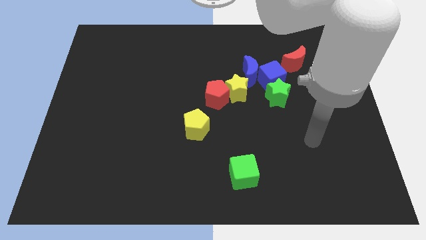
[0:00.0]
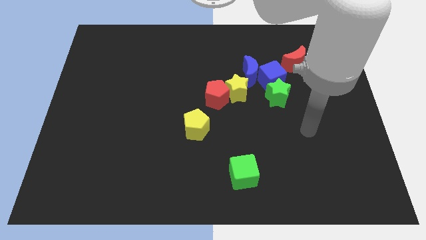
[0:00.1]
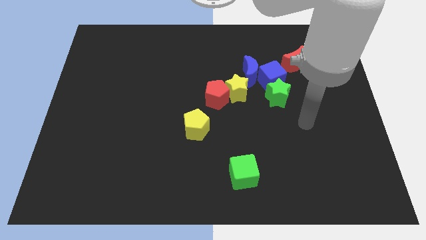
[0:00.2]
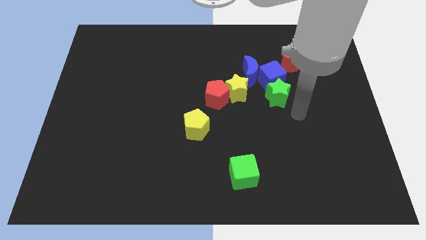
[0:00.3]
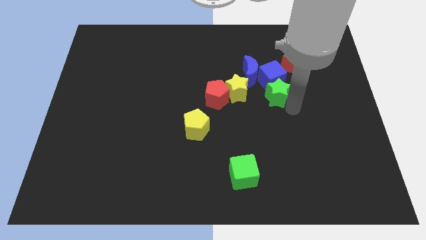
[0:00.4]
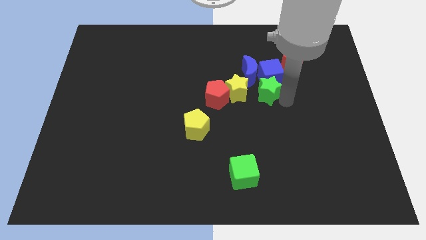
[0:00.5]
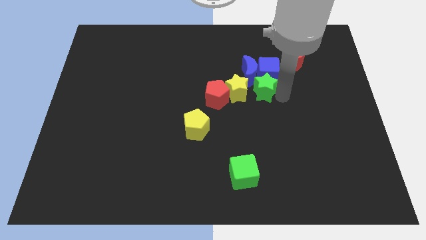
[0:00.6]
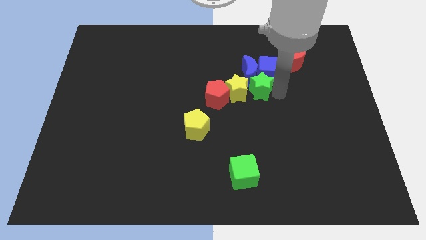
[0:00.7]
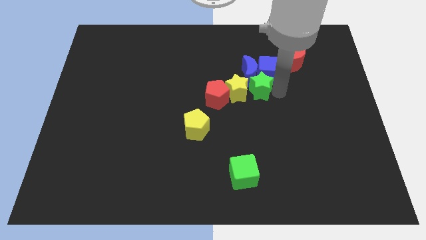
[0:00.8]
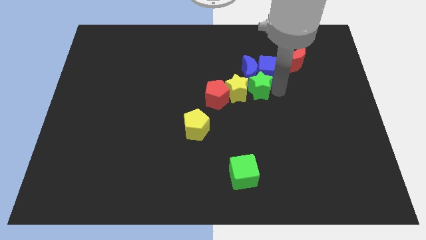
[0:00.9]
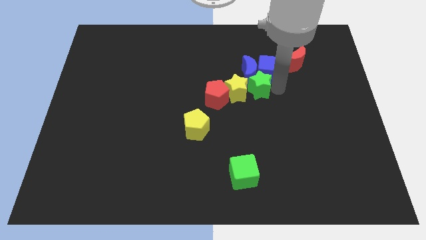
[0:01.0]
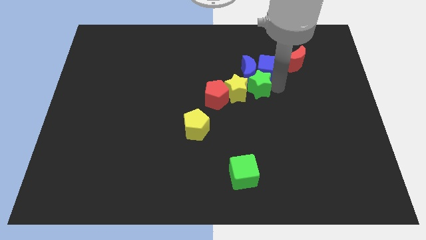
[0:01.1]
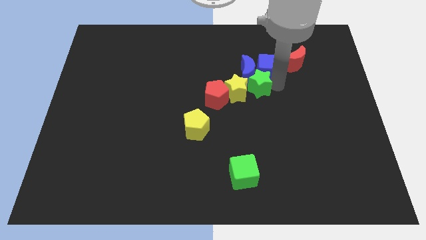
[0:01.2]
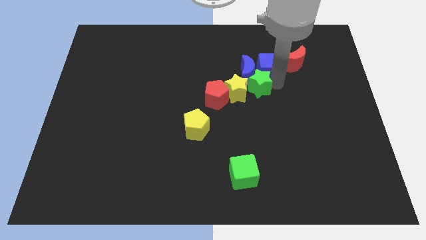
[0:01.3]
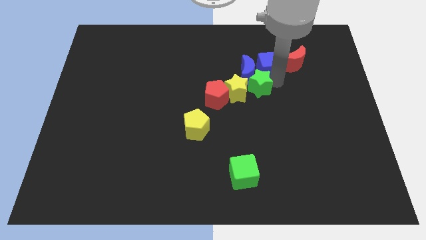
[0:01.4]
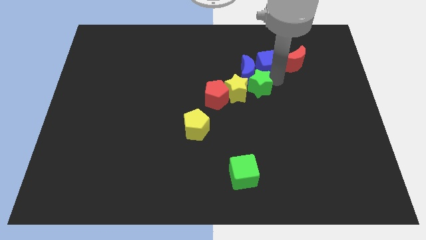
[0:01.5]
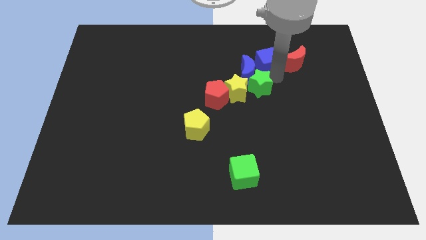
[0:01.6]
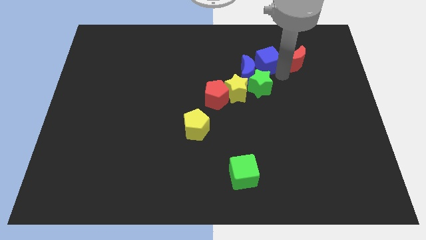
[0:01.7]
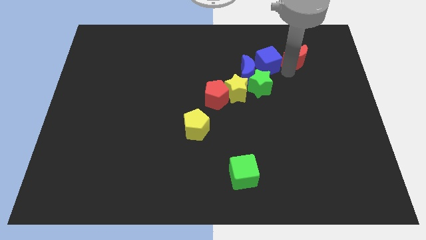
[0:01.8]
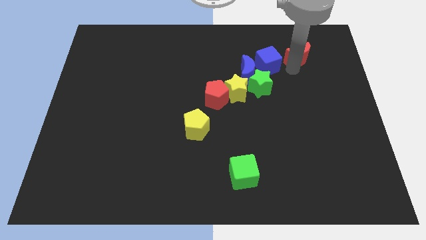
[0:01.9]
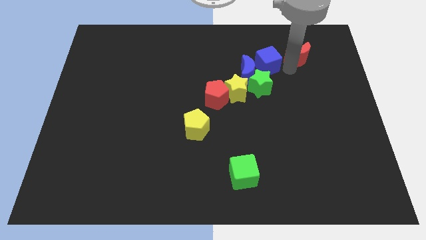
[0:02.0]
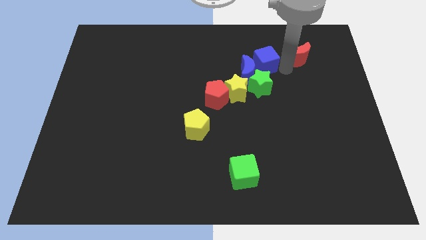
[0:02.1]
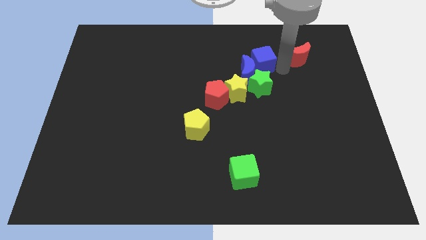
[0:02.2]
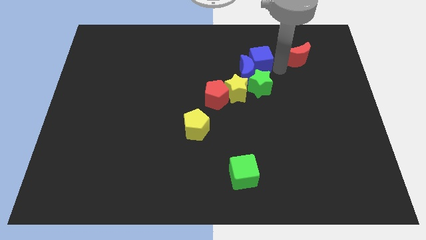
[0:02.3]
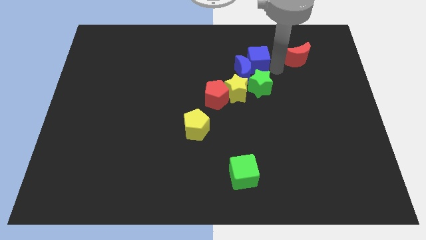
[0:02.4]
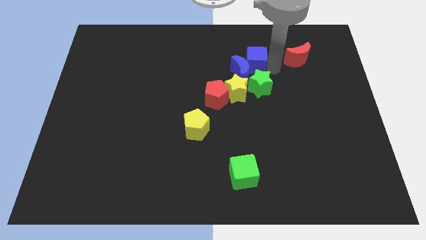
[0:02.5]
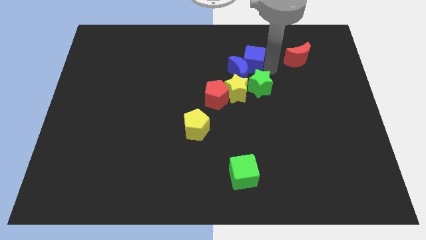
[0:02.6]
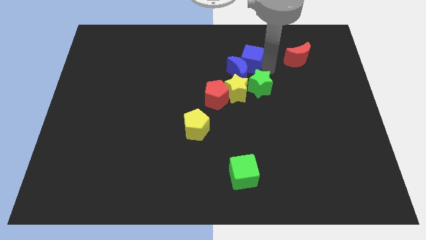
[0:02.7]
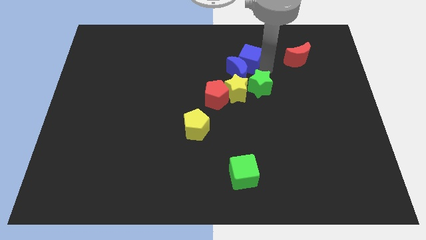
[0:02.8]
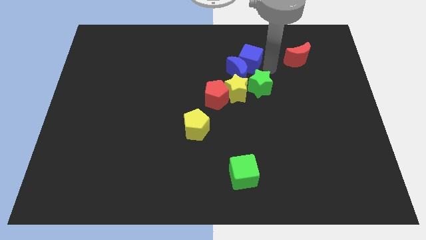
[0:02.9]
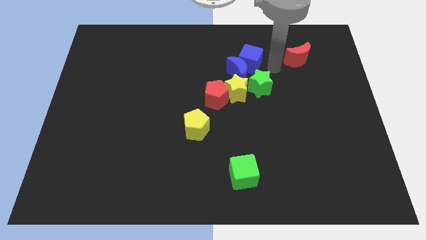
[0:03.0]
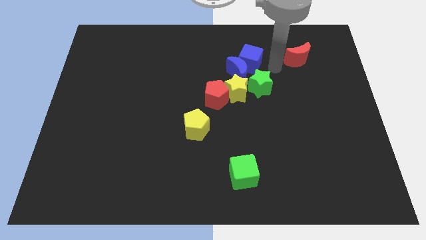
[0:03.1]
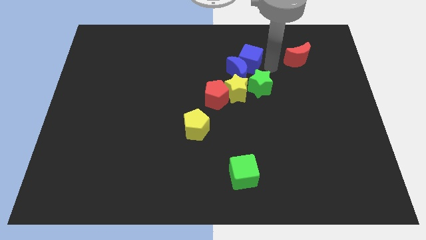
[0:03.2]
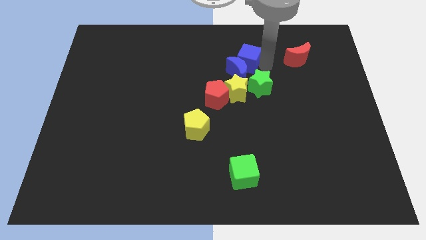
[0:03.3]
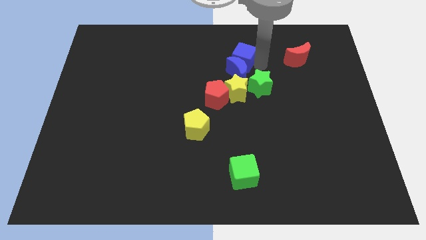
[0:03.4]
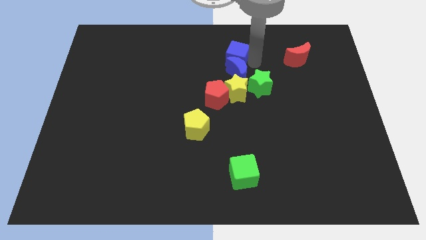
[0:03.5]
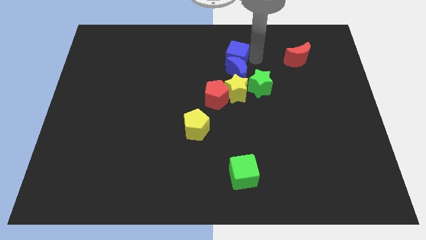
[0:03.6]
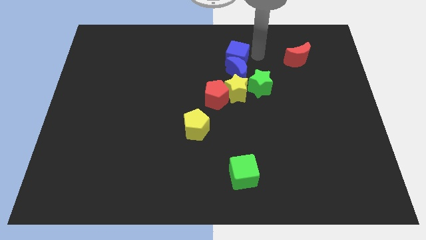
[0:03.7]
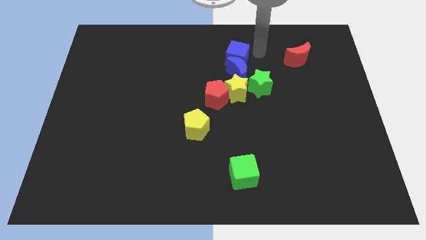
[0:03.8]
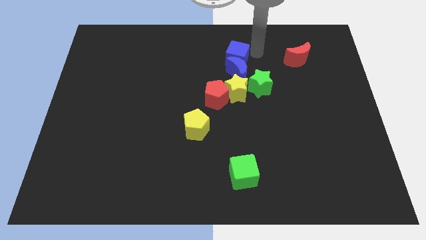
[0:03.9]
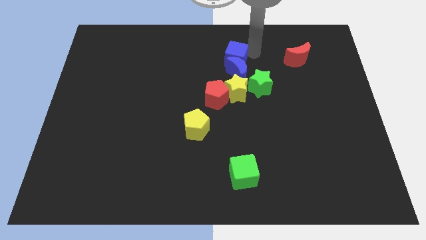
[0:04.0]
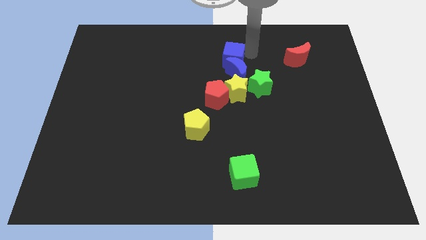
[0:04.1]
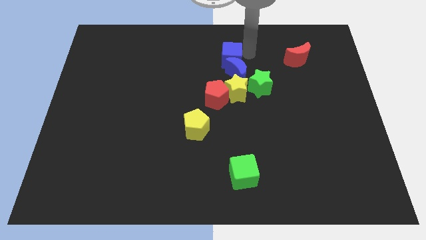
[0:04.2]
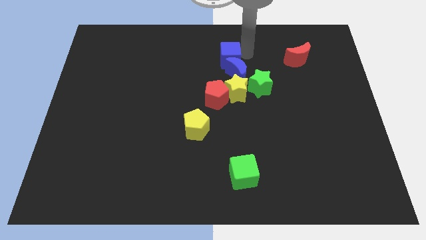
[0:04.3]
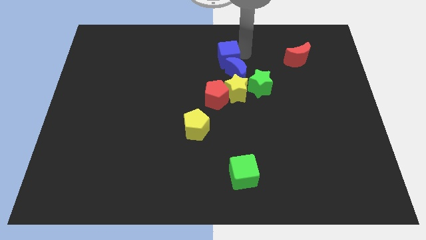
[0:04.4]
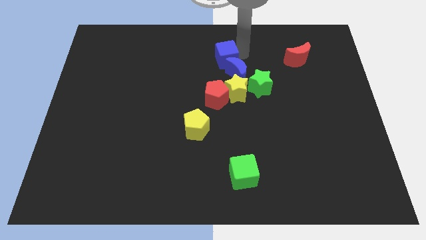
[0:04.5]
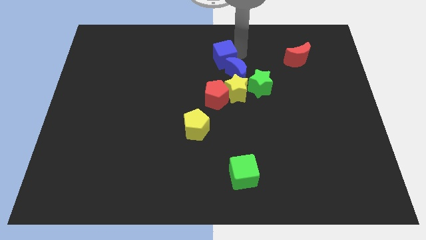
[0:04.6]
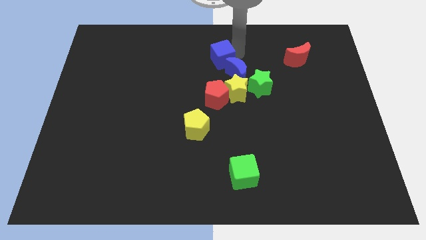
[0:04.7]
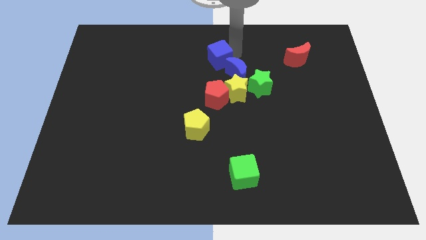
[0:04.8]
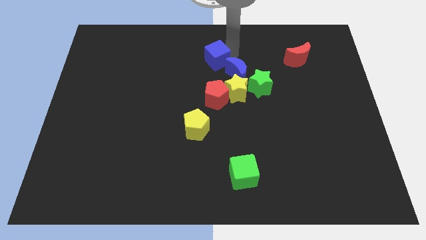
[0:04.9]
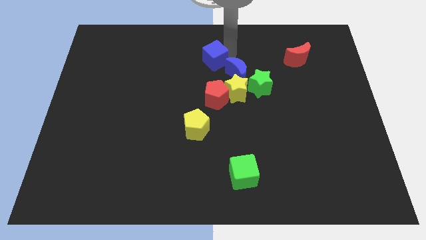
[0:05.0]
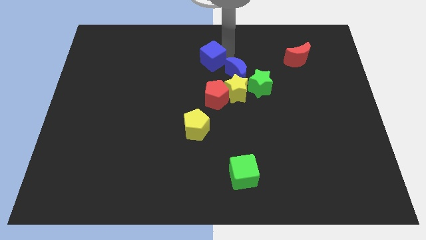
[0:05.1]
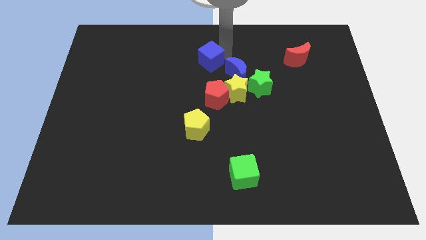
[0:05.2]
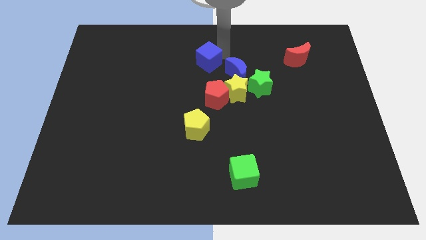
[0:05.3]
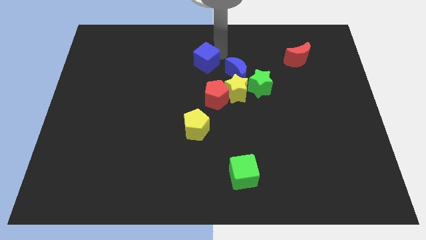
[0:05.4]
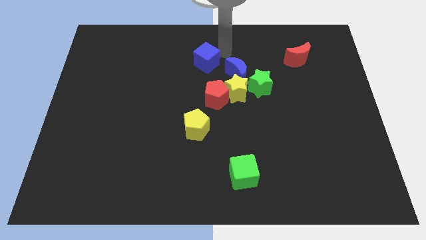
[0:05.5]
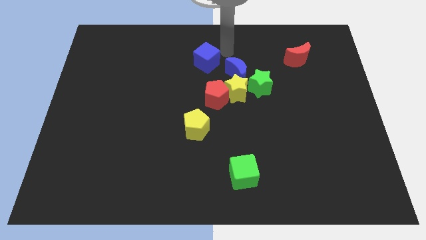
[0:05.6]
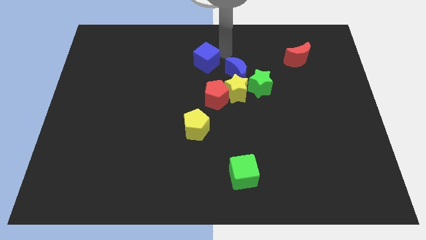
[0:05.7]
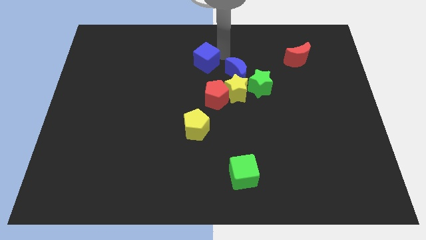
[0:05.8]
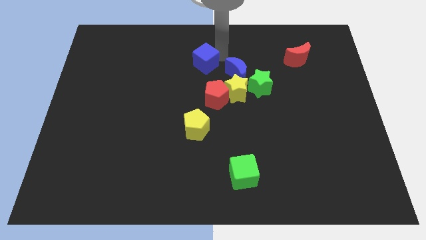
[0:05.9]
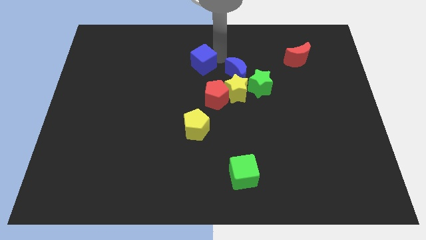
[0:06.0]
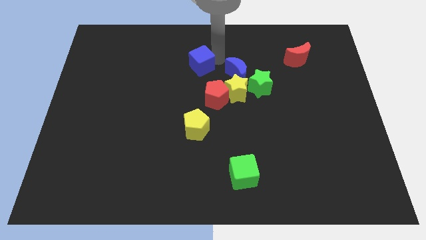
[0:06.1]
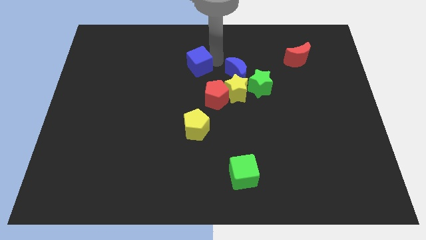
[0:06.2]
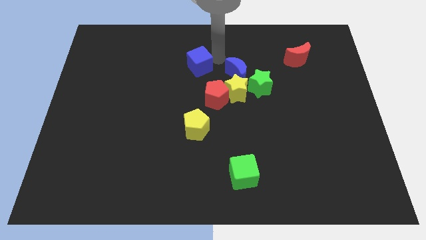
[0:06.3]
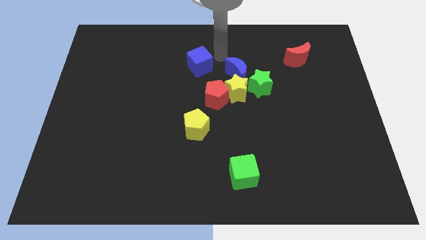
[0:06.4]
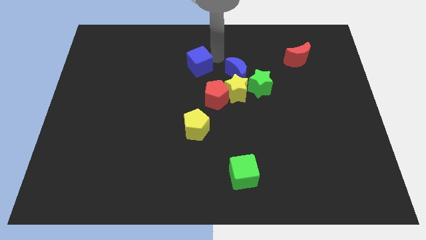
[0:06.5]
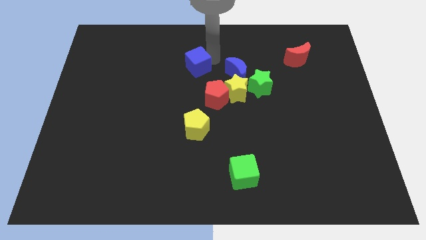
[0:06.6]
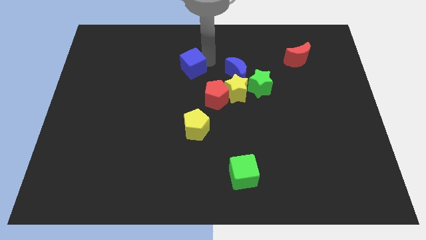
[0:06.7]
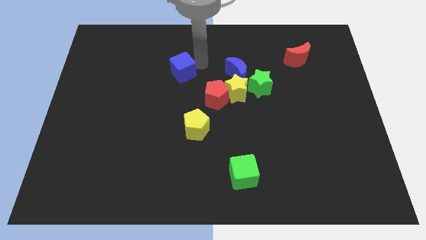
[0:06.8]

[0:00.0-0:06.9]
push the blue cube to the left

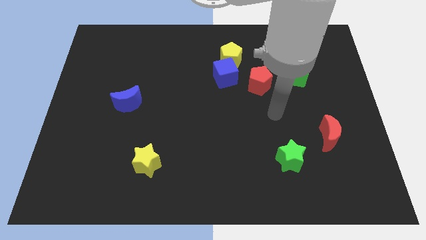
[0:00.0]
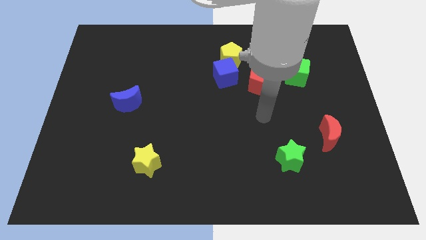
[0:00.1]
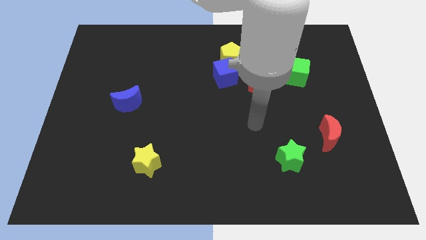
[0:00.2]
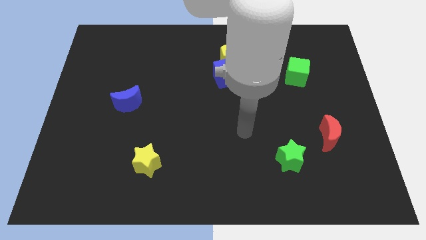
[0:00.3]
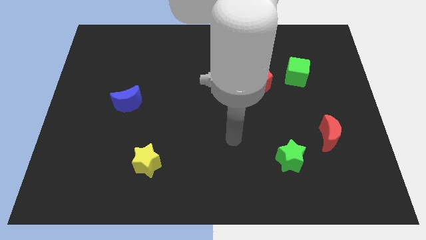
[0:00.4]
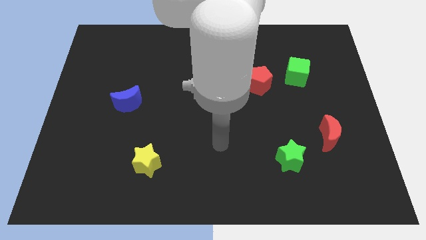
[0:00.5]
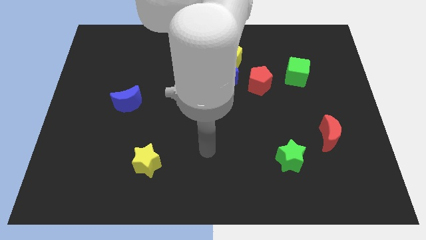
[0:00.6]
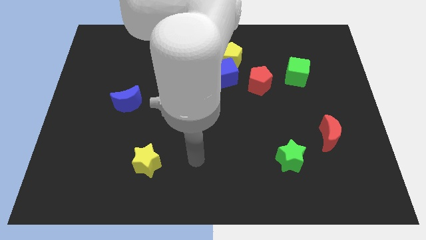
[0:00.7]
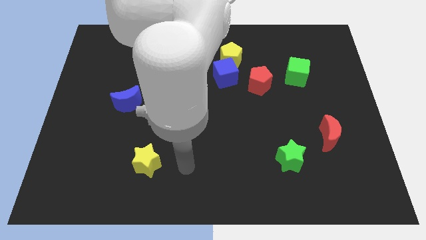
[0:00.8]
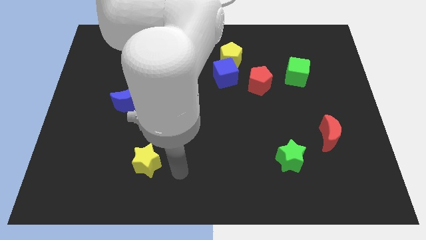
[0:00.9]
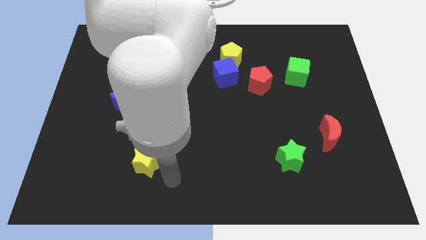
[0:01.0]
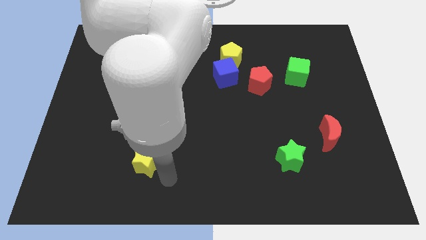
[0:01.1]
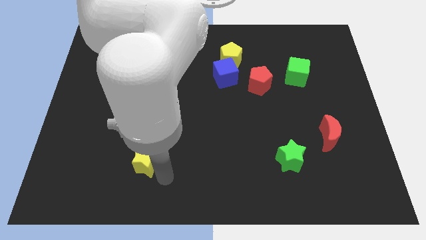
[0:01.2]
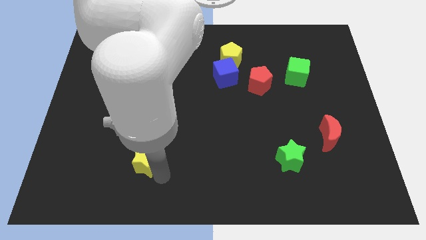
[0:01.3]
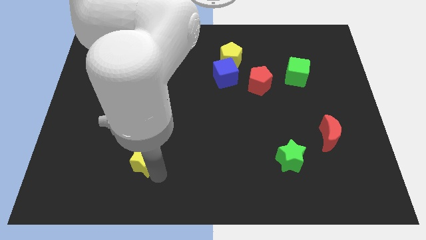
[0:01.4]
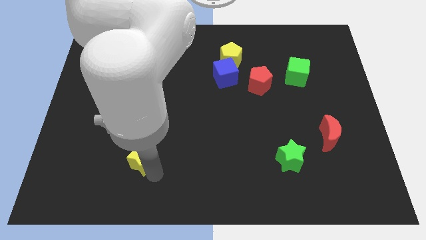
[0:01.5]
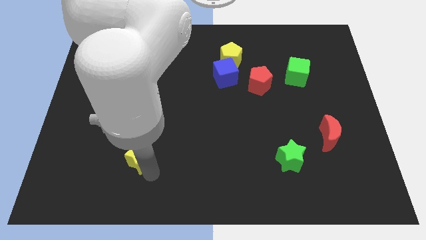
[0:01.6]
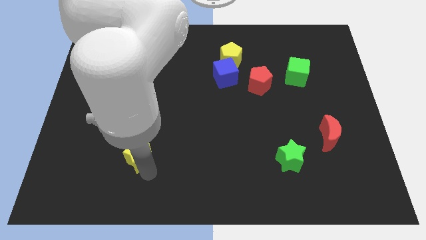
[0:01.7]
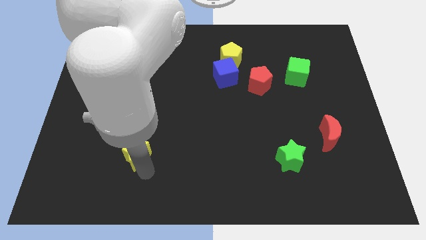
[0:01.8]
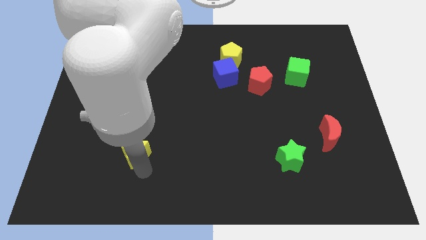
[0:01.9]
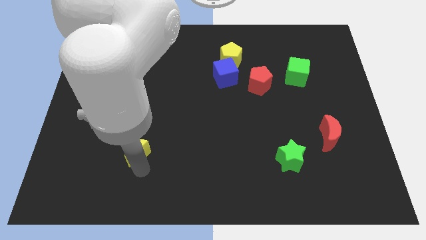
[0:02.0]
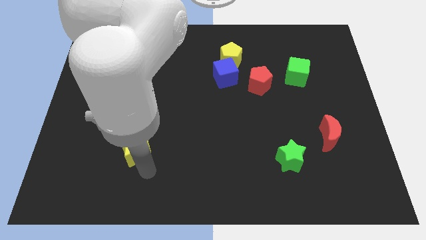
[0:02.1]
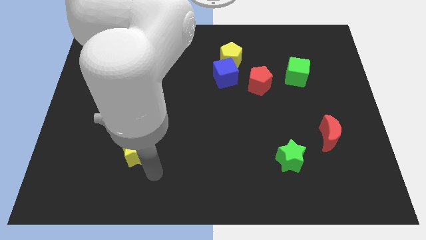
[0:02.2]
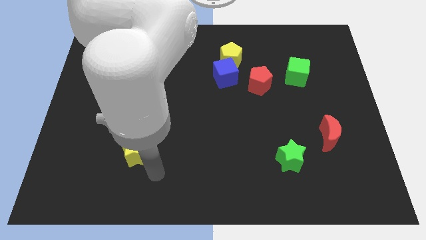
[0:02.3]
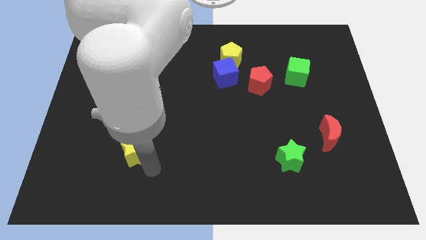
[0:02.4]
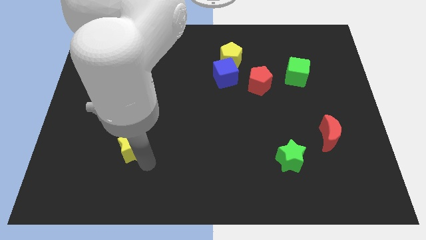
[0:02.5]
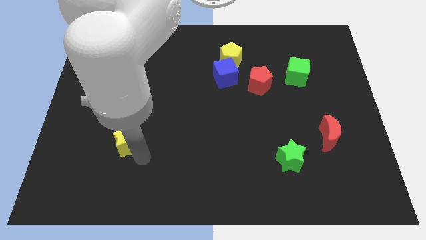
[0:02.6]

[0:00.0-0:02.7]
slightly move the yellow star up and then to the left
